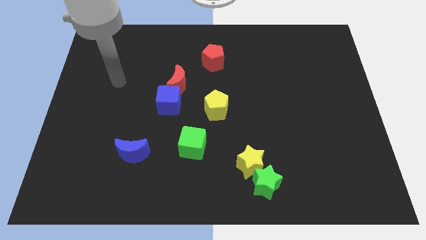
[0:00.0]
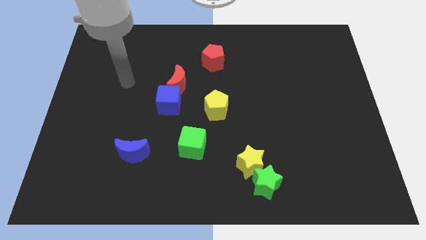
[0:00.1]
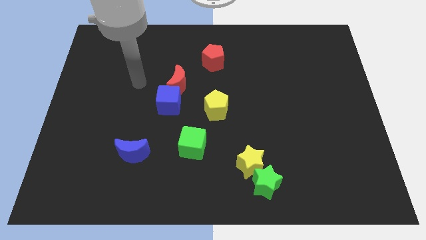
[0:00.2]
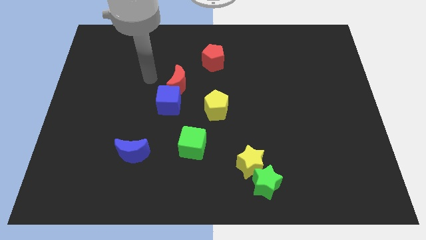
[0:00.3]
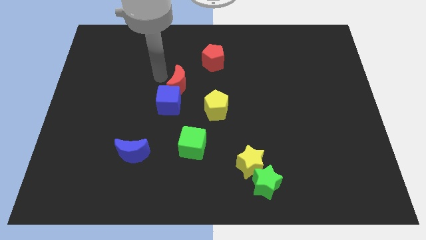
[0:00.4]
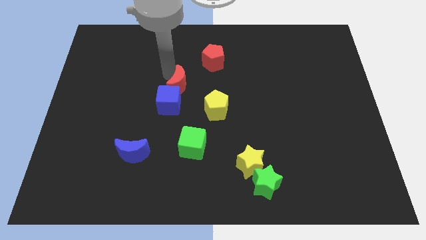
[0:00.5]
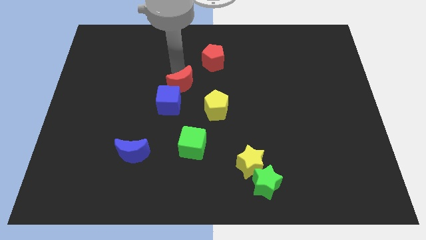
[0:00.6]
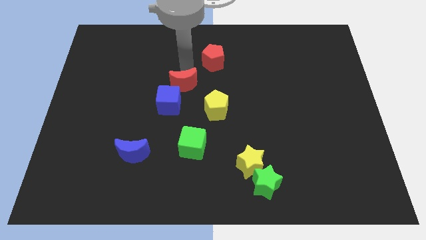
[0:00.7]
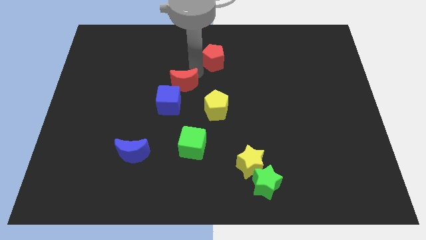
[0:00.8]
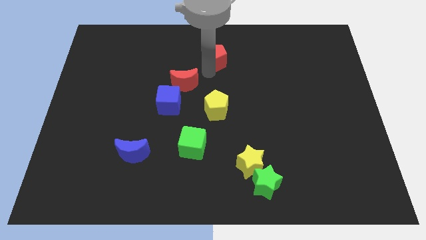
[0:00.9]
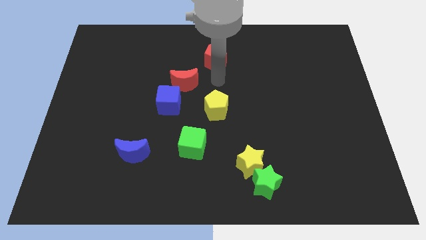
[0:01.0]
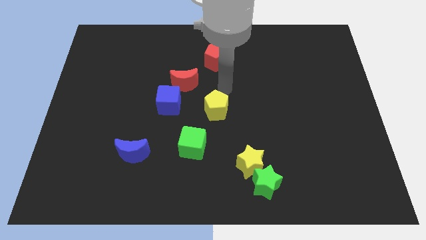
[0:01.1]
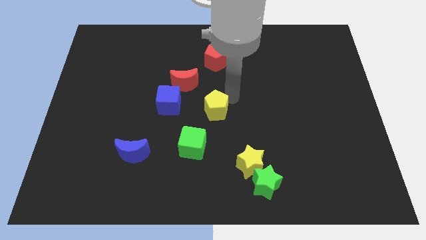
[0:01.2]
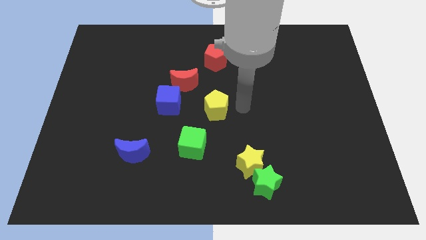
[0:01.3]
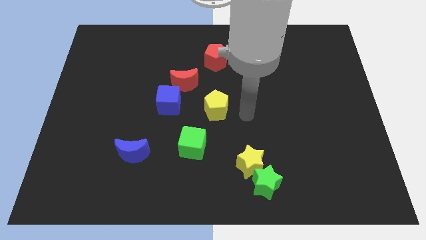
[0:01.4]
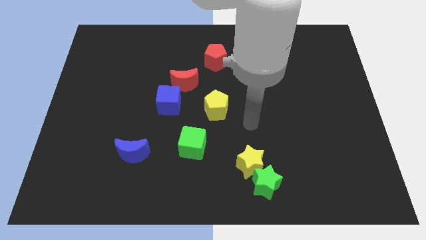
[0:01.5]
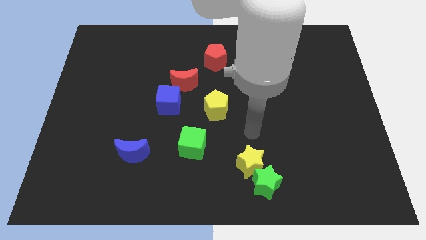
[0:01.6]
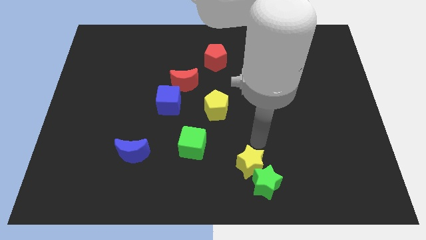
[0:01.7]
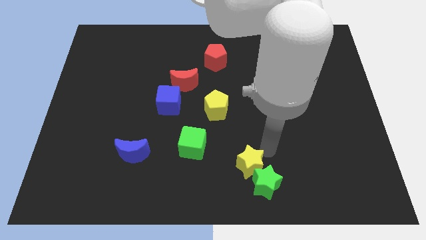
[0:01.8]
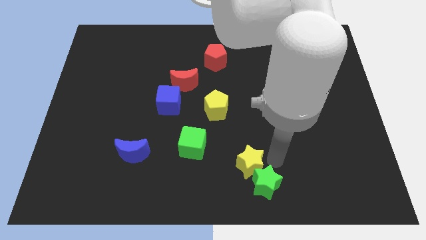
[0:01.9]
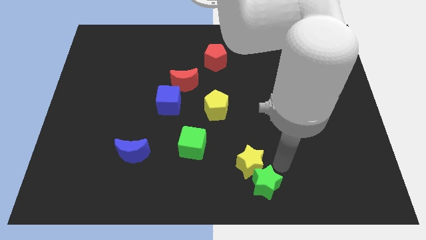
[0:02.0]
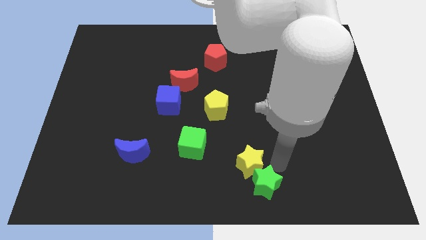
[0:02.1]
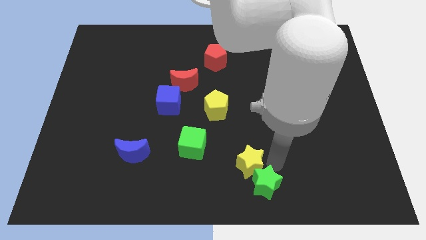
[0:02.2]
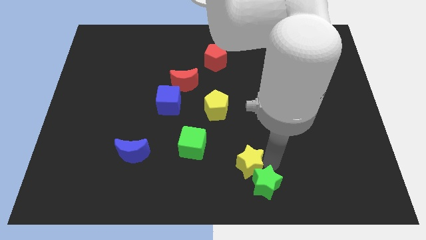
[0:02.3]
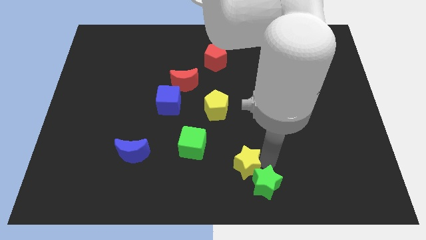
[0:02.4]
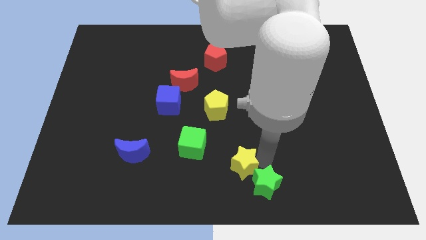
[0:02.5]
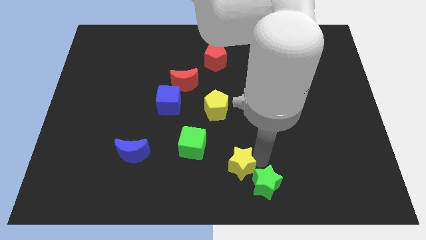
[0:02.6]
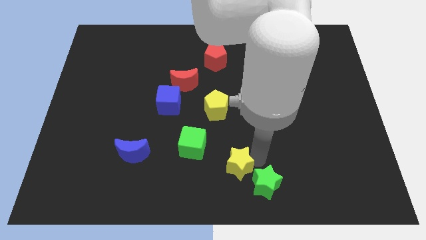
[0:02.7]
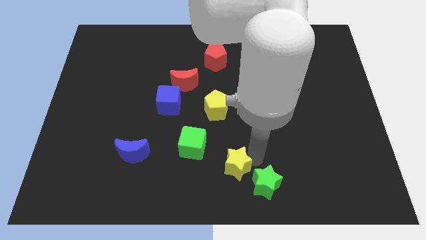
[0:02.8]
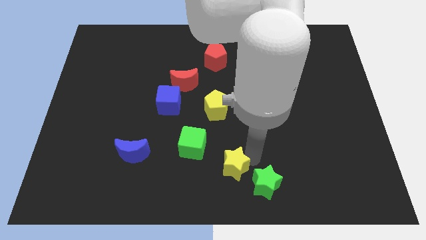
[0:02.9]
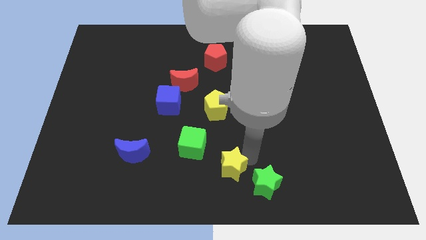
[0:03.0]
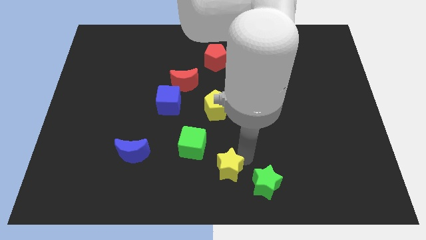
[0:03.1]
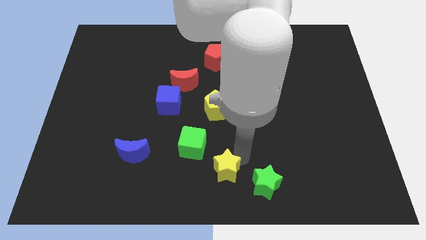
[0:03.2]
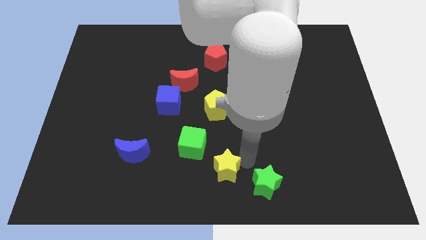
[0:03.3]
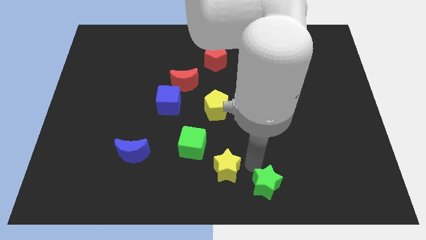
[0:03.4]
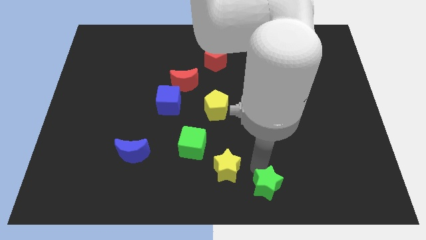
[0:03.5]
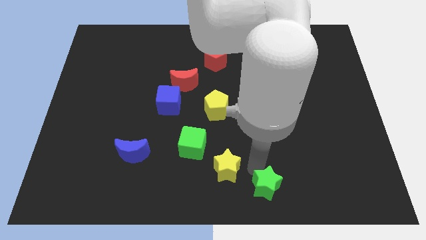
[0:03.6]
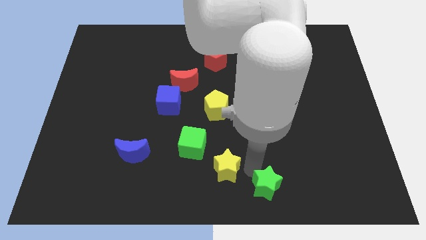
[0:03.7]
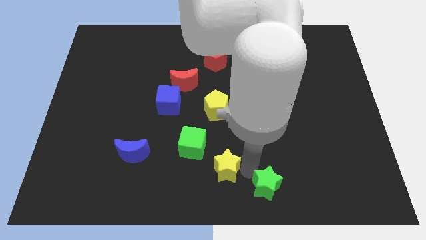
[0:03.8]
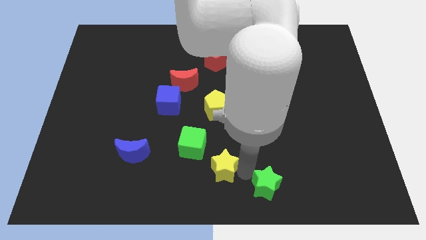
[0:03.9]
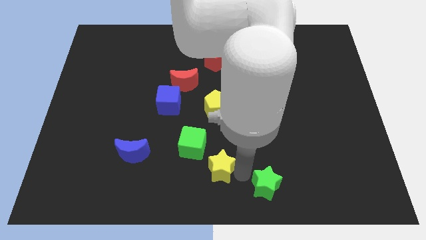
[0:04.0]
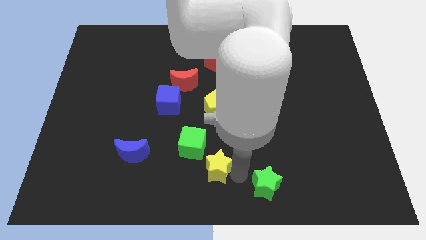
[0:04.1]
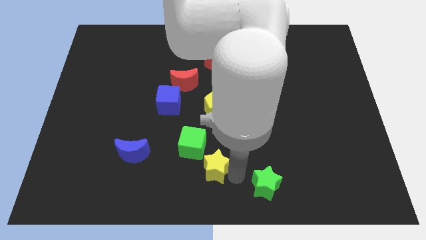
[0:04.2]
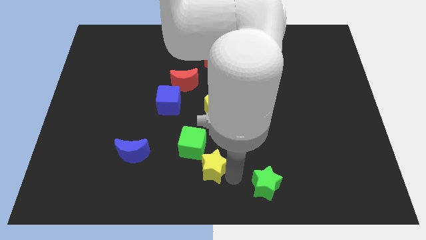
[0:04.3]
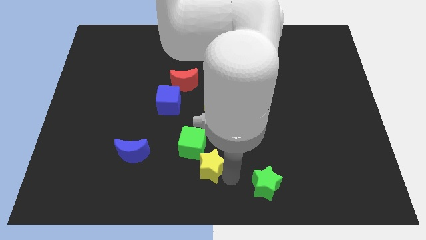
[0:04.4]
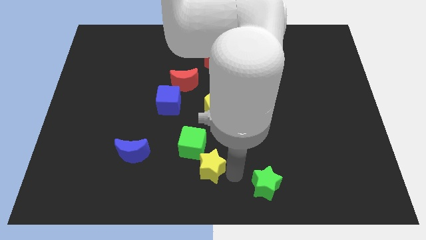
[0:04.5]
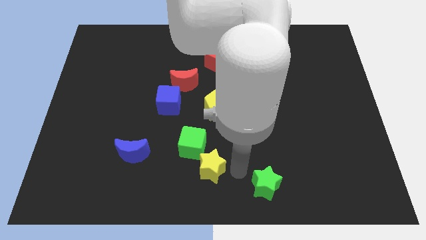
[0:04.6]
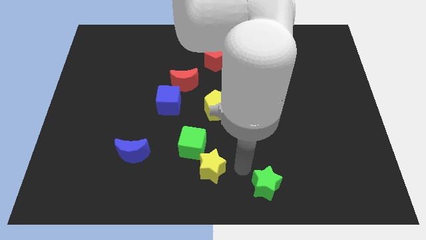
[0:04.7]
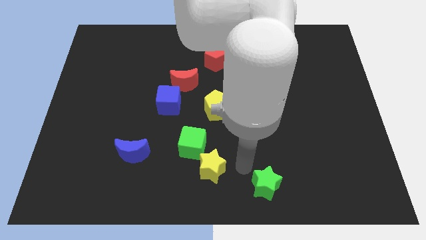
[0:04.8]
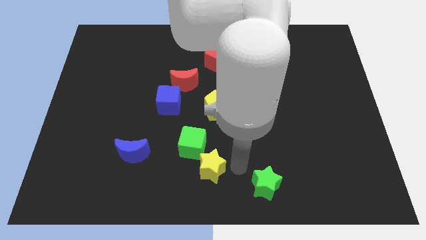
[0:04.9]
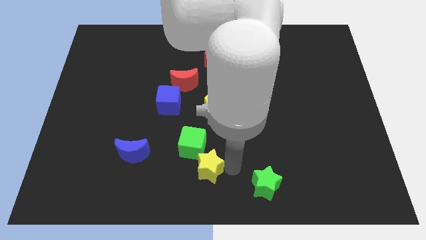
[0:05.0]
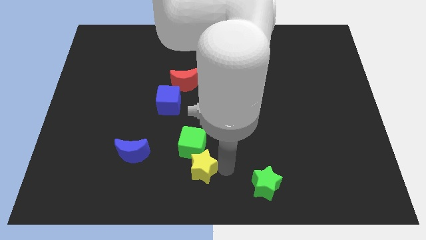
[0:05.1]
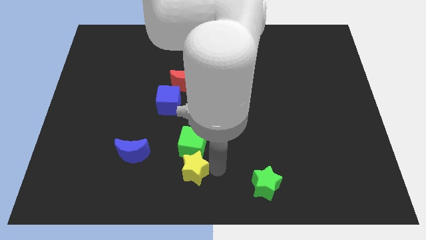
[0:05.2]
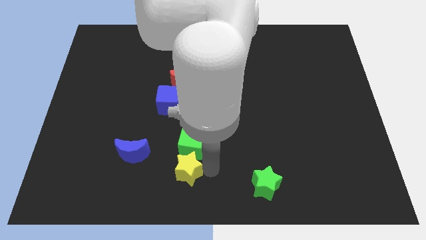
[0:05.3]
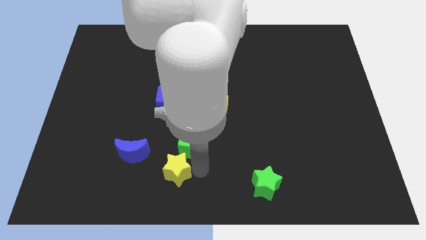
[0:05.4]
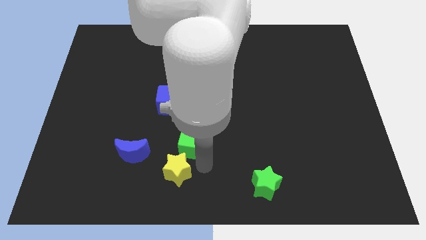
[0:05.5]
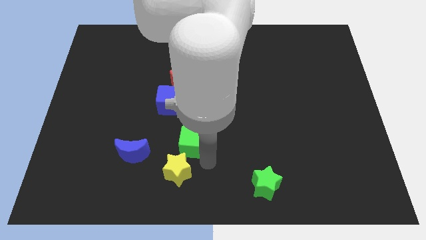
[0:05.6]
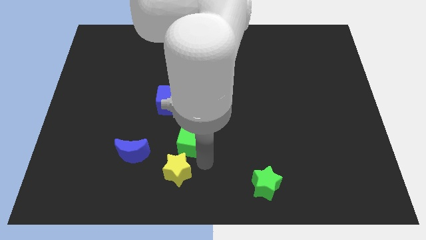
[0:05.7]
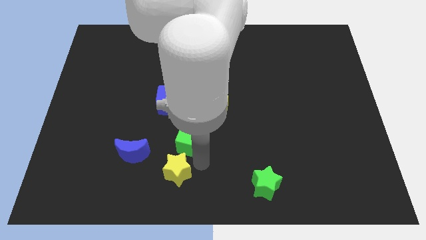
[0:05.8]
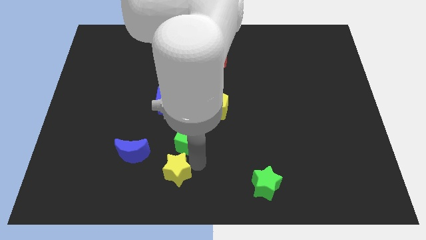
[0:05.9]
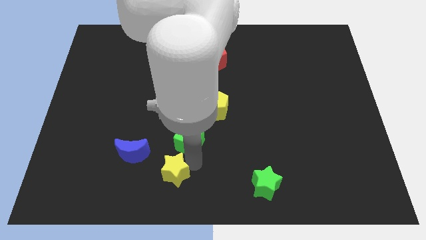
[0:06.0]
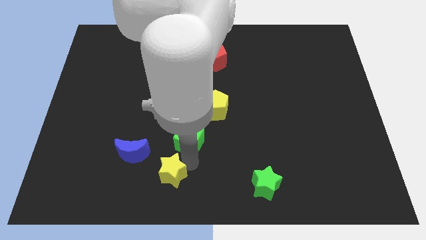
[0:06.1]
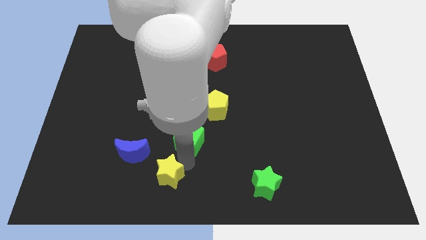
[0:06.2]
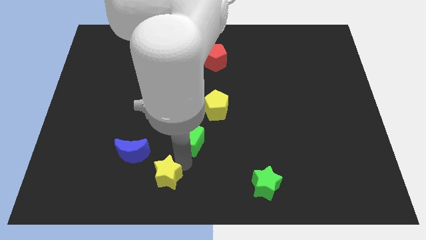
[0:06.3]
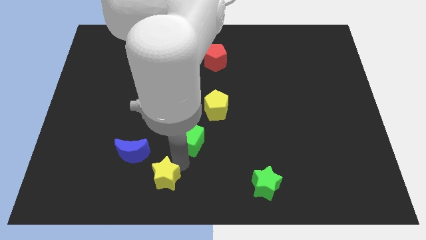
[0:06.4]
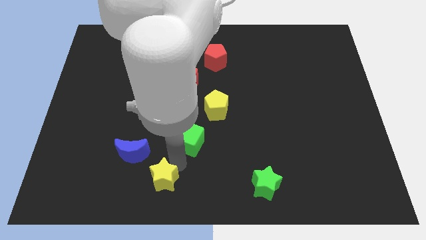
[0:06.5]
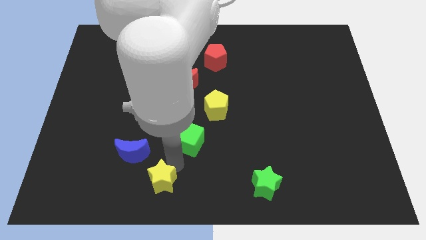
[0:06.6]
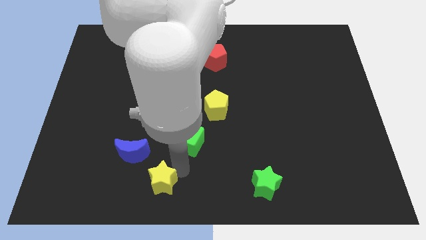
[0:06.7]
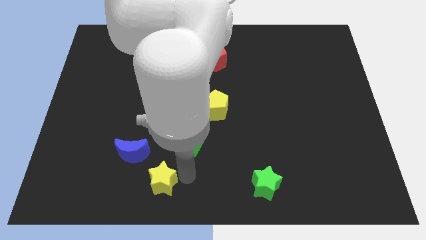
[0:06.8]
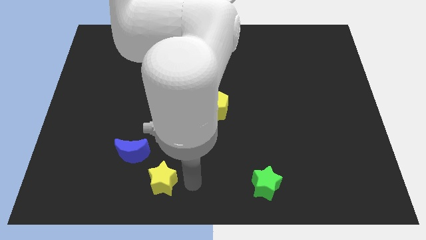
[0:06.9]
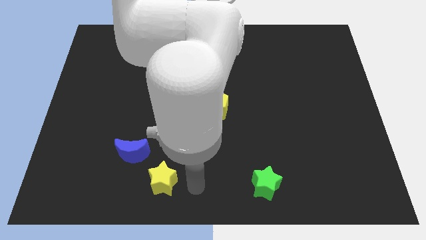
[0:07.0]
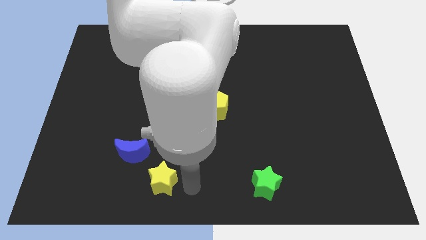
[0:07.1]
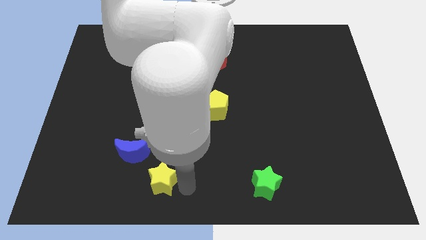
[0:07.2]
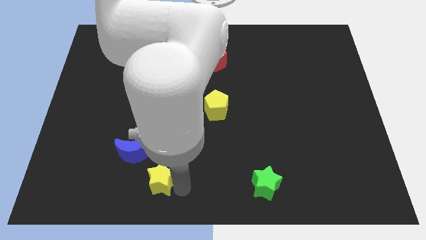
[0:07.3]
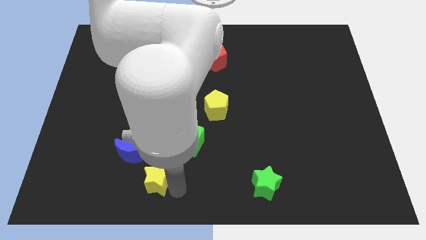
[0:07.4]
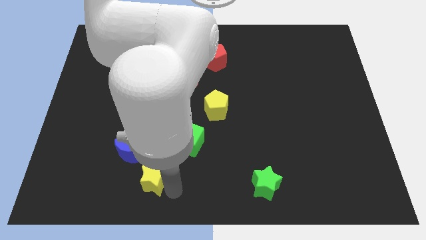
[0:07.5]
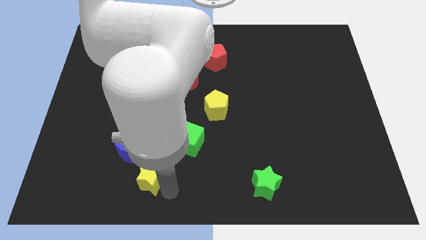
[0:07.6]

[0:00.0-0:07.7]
push the yellow star left
